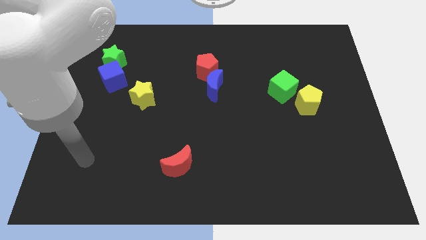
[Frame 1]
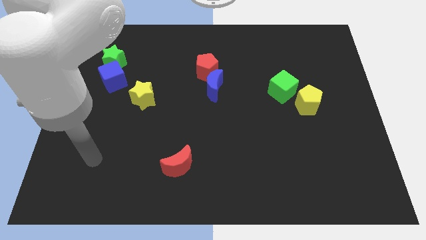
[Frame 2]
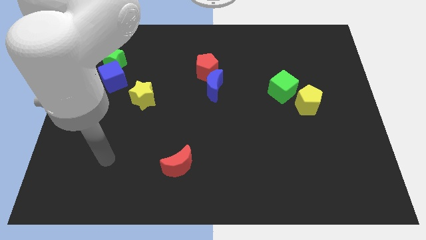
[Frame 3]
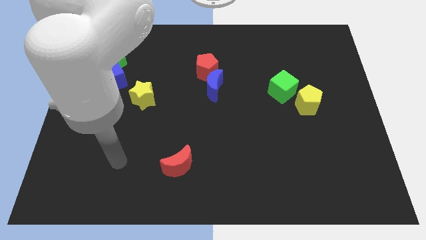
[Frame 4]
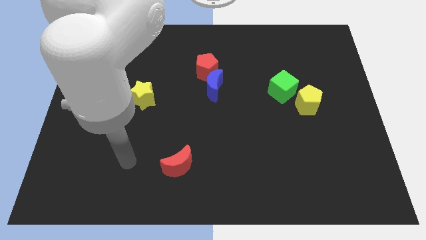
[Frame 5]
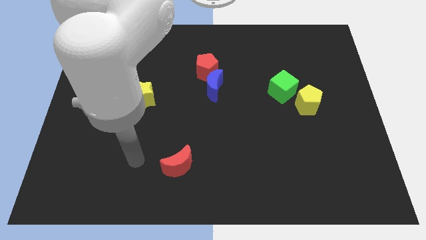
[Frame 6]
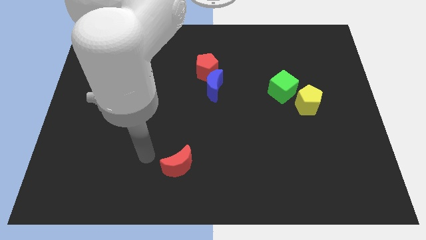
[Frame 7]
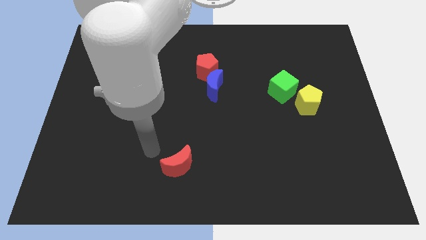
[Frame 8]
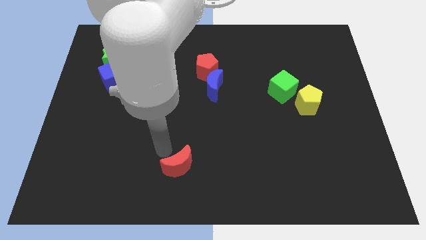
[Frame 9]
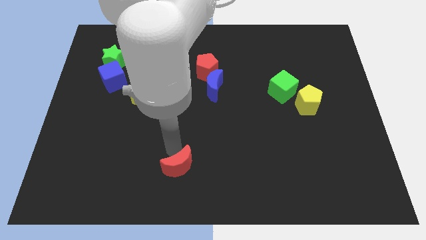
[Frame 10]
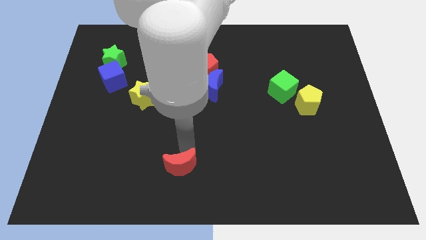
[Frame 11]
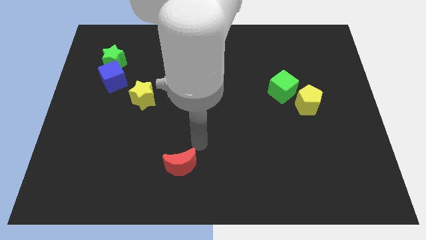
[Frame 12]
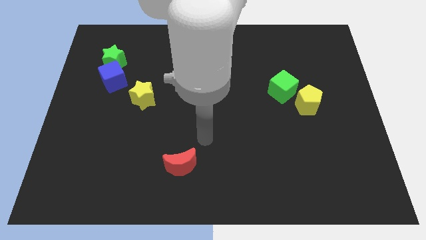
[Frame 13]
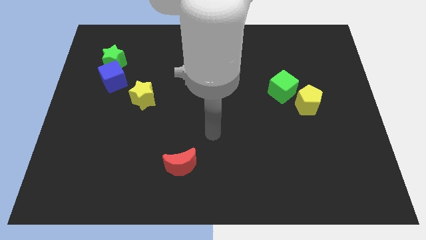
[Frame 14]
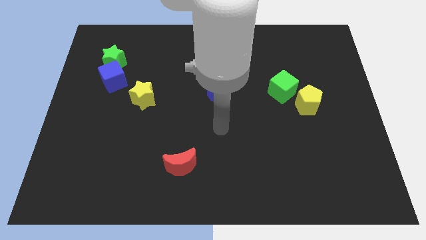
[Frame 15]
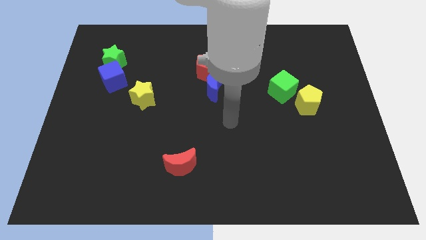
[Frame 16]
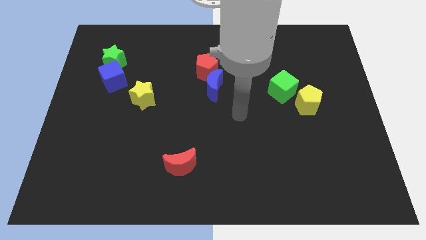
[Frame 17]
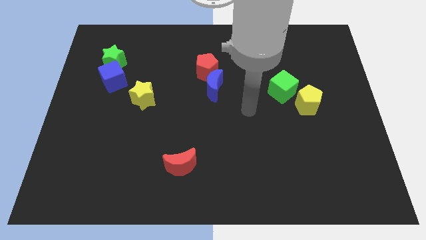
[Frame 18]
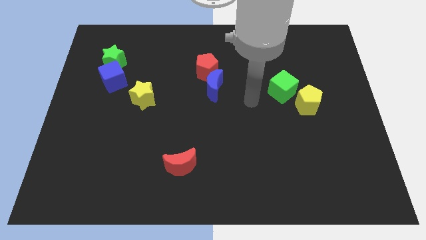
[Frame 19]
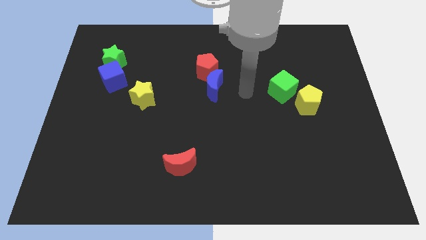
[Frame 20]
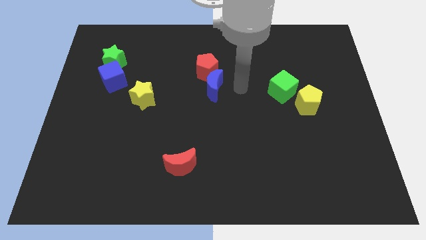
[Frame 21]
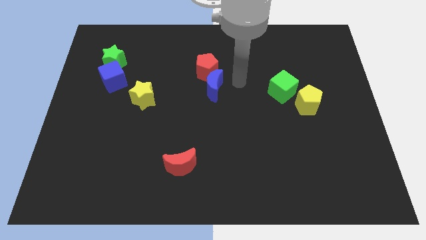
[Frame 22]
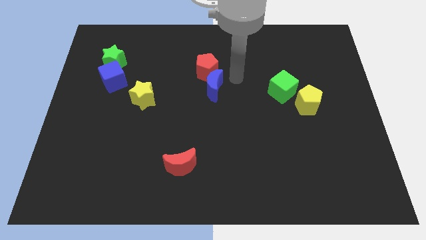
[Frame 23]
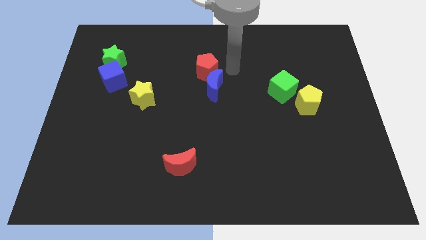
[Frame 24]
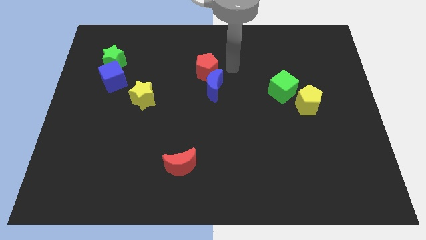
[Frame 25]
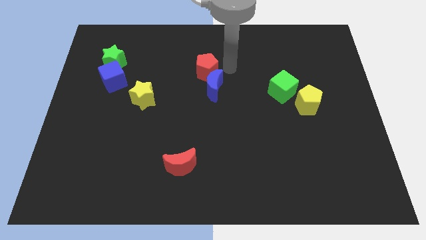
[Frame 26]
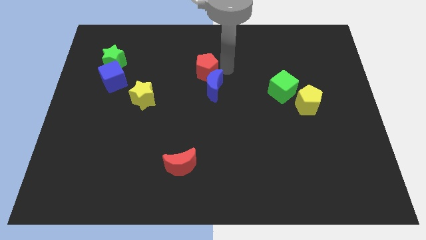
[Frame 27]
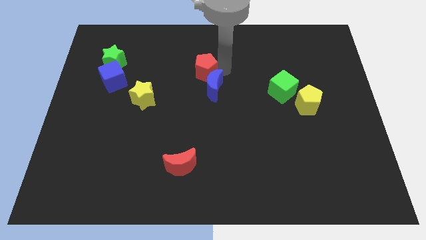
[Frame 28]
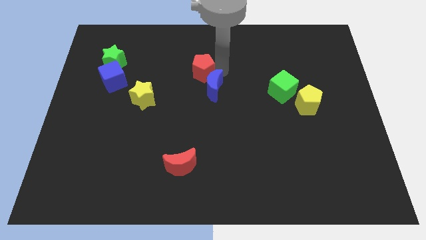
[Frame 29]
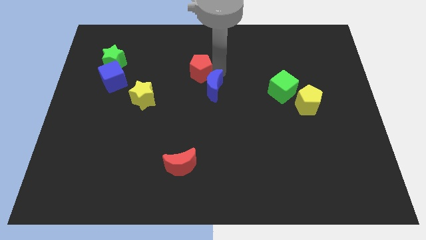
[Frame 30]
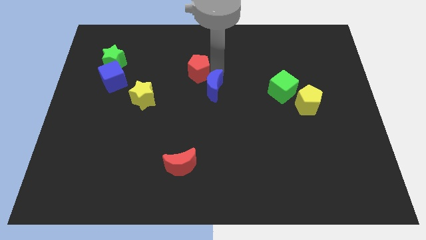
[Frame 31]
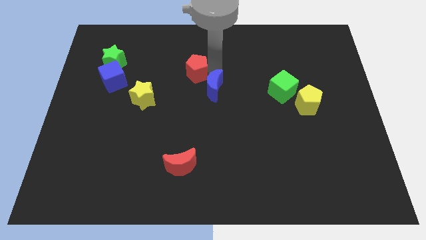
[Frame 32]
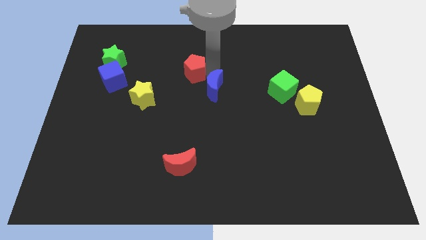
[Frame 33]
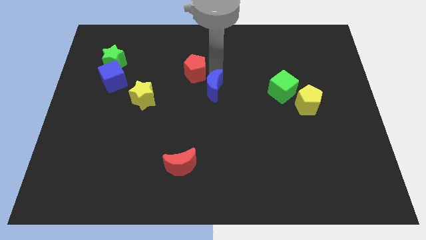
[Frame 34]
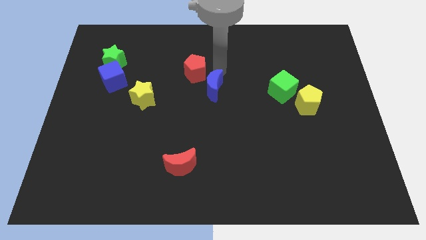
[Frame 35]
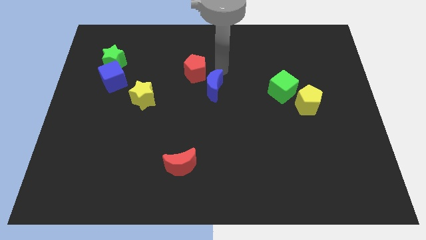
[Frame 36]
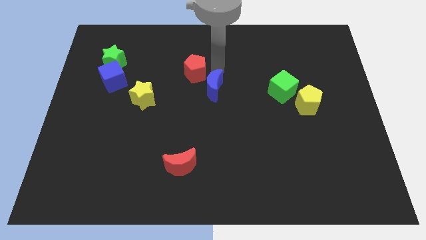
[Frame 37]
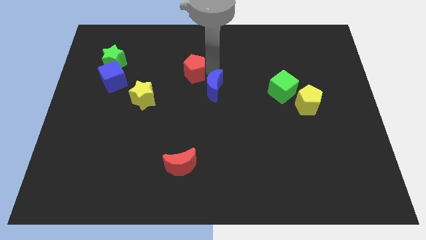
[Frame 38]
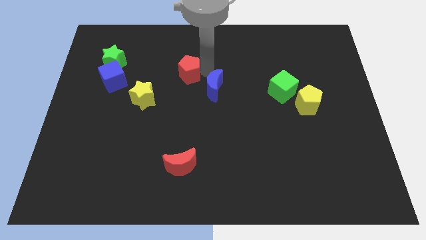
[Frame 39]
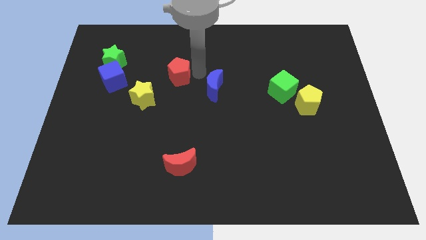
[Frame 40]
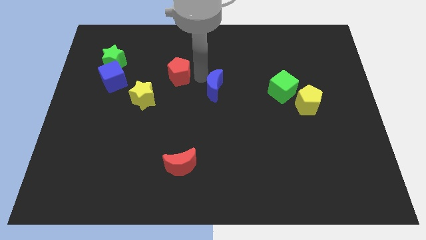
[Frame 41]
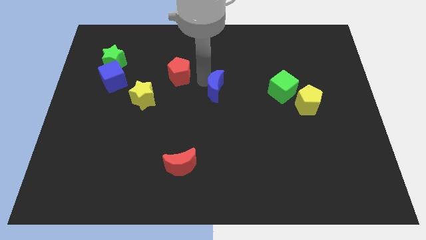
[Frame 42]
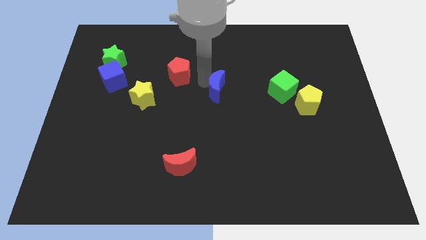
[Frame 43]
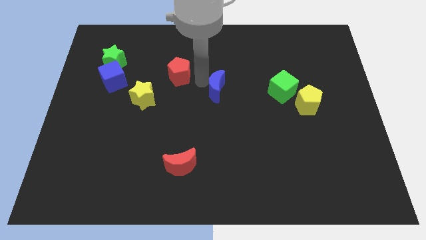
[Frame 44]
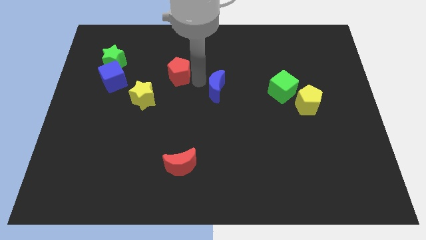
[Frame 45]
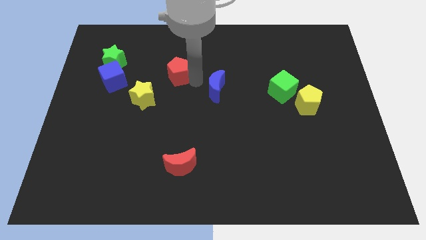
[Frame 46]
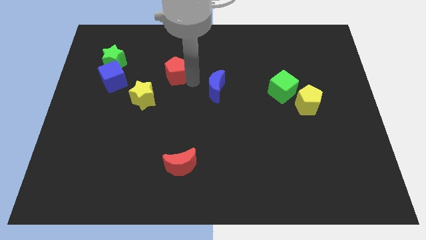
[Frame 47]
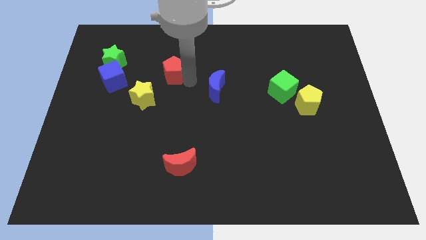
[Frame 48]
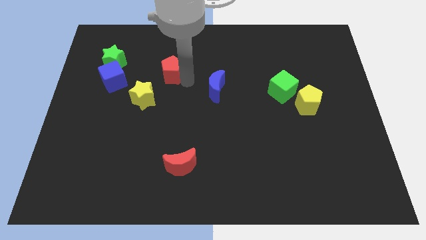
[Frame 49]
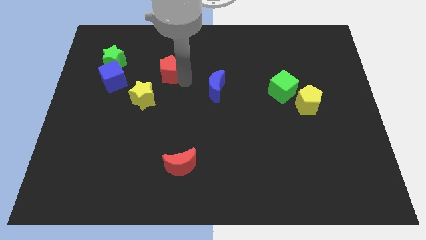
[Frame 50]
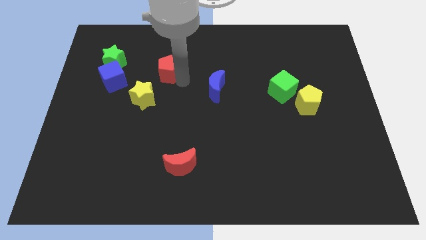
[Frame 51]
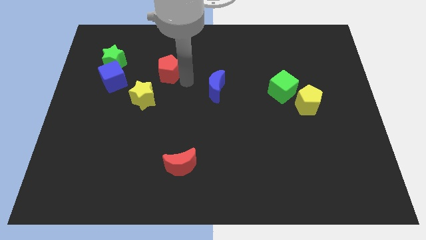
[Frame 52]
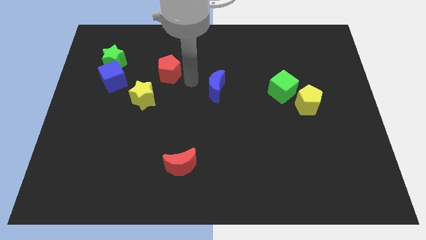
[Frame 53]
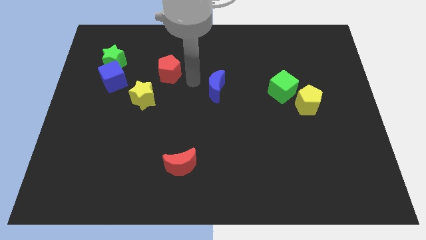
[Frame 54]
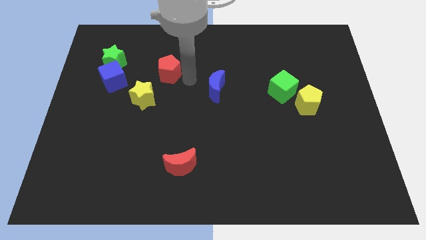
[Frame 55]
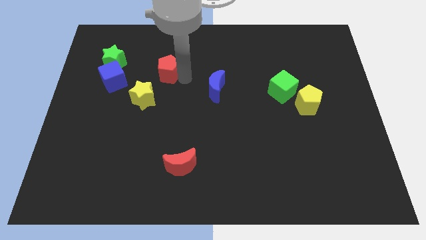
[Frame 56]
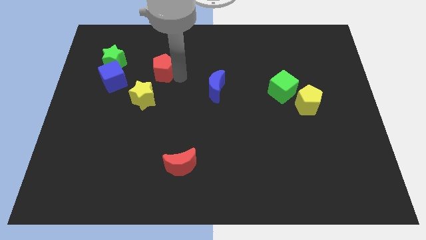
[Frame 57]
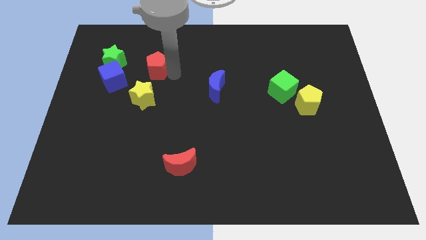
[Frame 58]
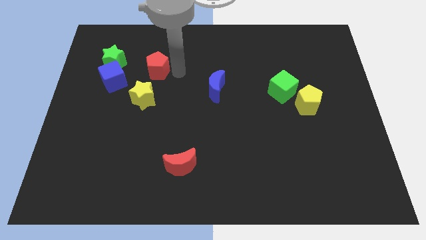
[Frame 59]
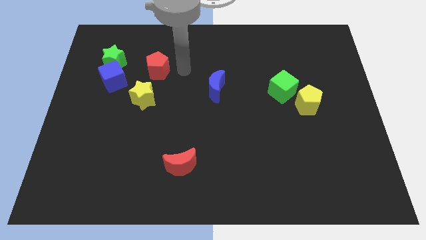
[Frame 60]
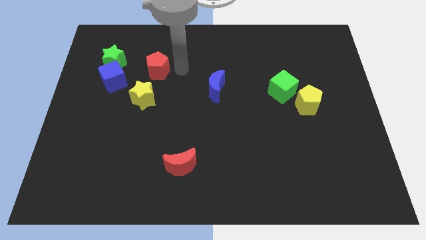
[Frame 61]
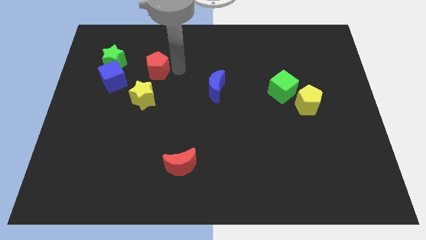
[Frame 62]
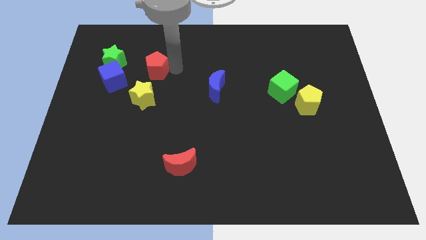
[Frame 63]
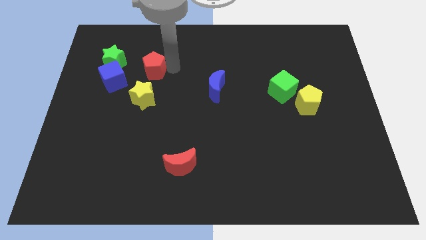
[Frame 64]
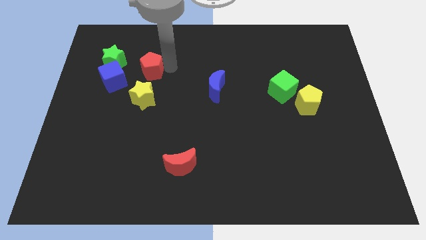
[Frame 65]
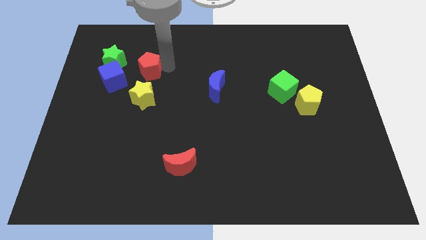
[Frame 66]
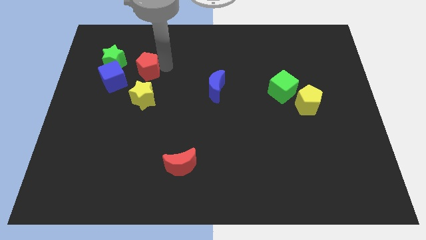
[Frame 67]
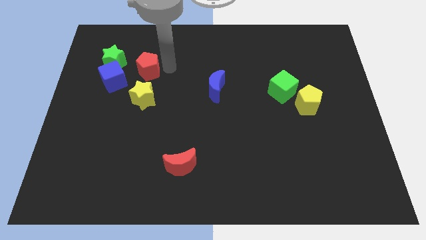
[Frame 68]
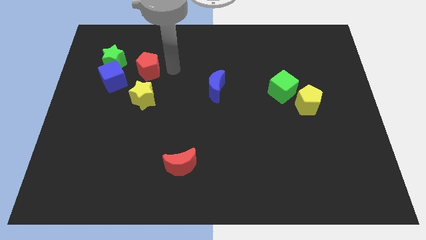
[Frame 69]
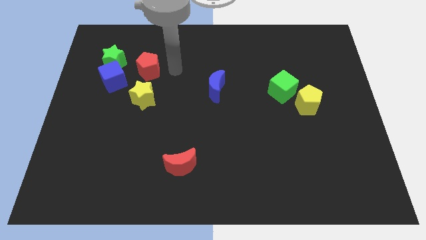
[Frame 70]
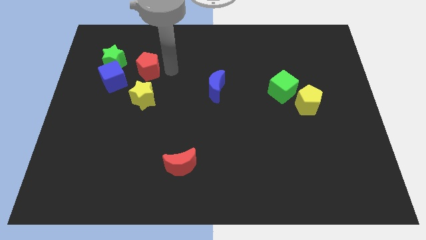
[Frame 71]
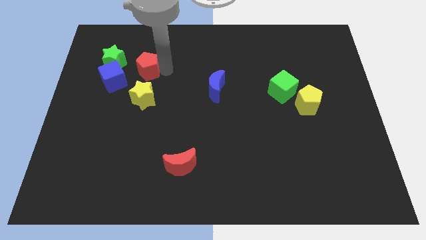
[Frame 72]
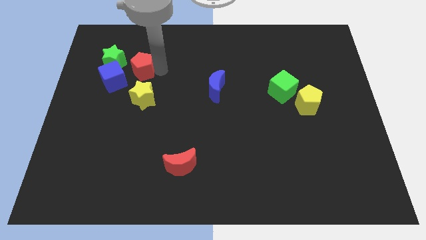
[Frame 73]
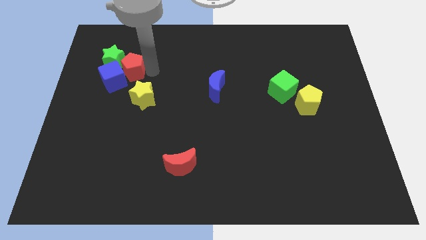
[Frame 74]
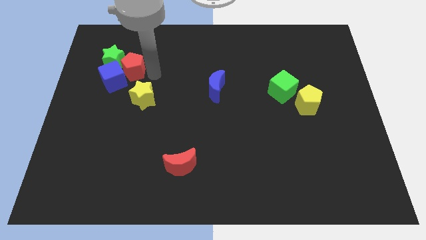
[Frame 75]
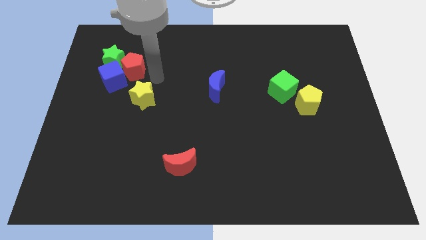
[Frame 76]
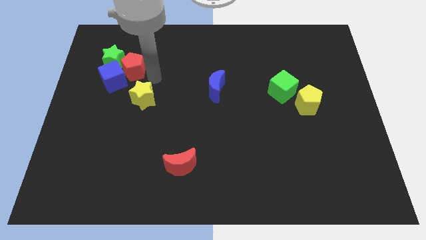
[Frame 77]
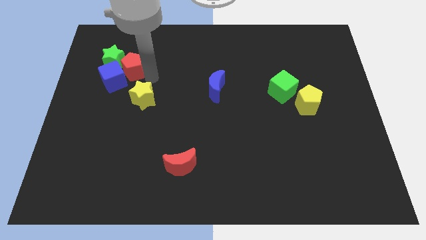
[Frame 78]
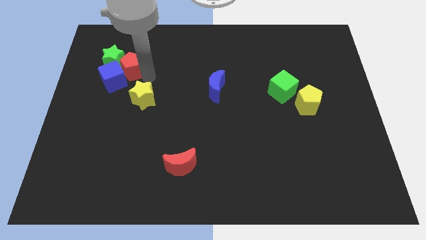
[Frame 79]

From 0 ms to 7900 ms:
slide the red pentagon to the green star
